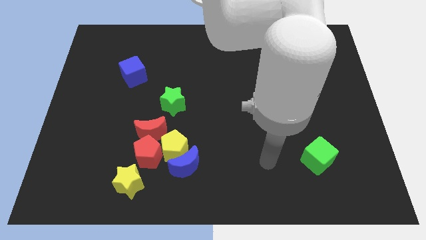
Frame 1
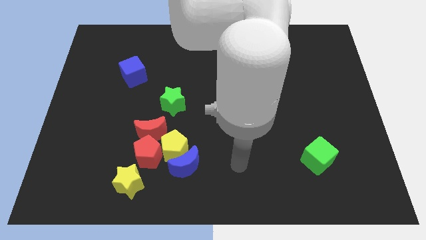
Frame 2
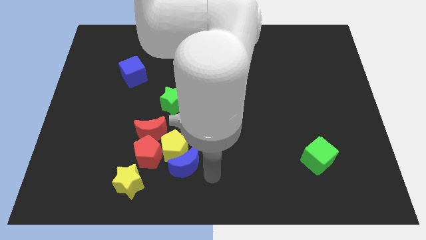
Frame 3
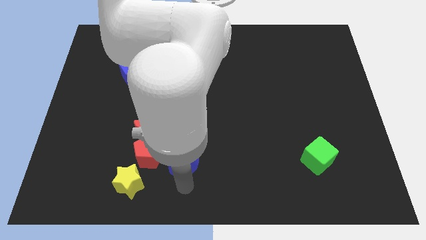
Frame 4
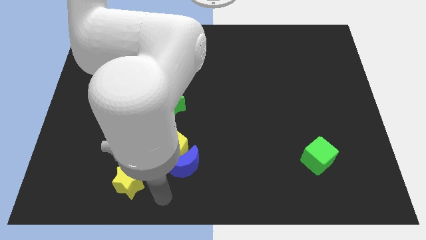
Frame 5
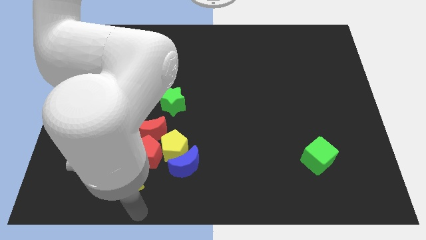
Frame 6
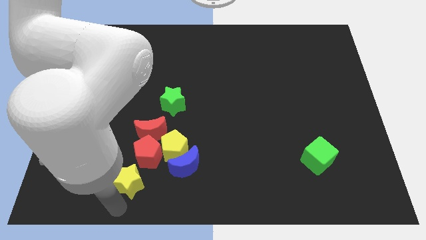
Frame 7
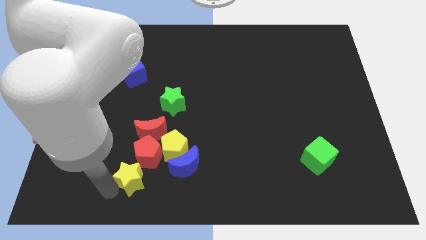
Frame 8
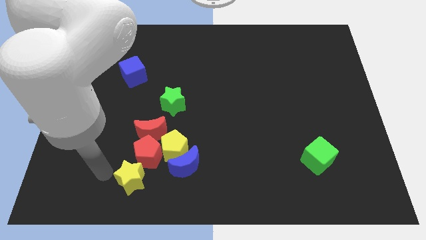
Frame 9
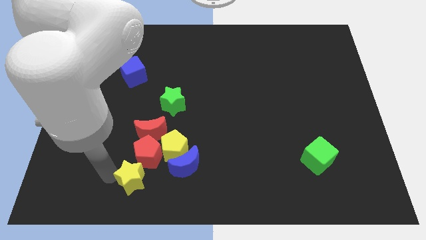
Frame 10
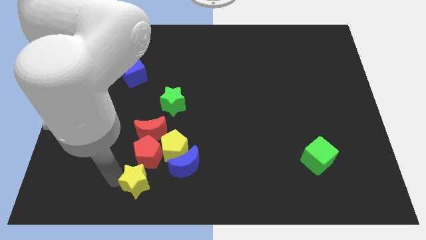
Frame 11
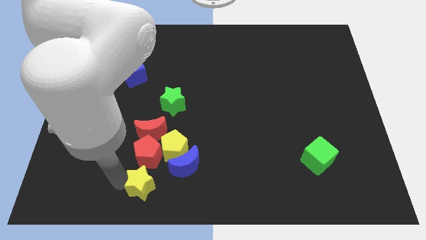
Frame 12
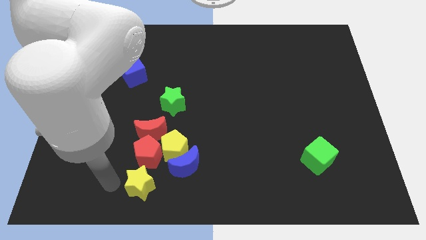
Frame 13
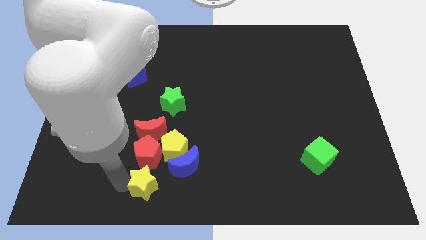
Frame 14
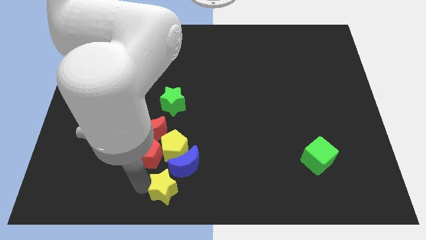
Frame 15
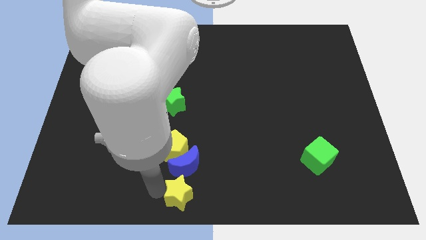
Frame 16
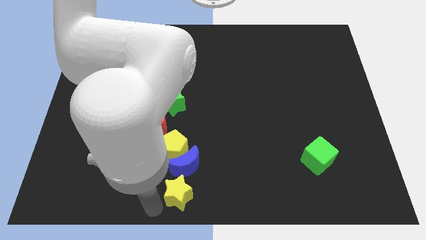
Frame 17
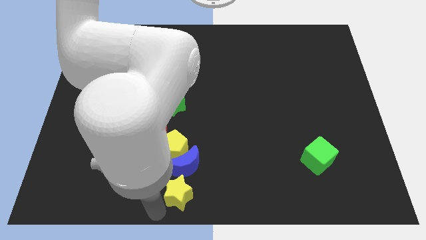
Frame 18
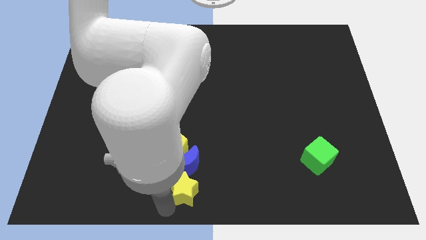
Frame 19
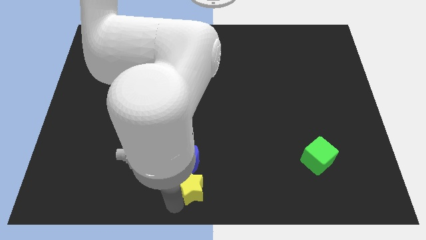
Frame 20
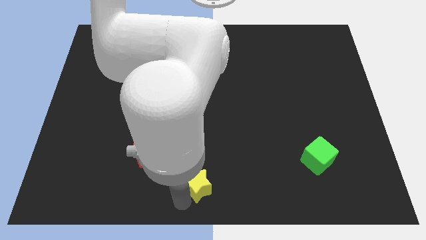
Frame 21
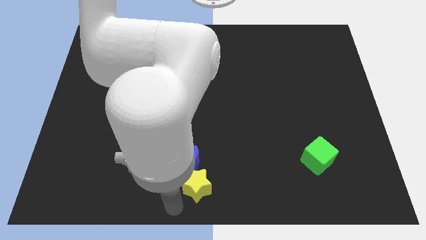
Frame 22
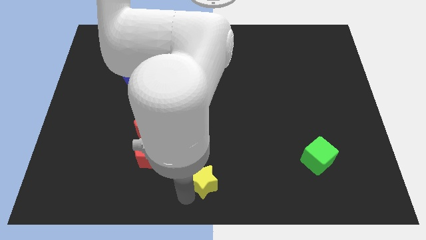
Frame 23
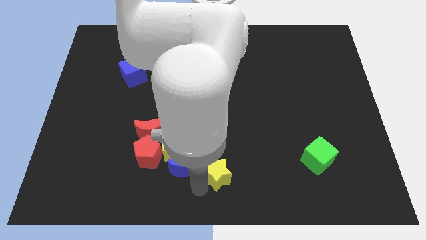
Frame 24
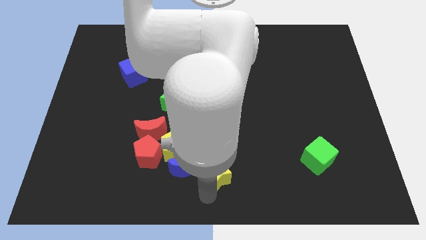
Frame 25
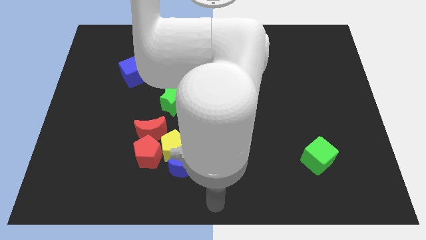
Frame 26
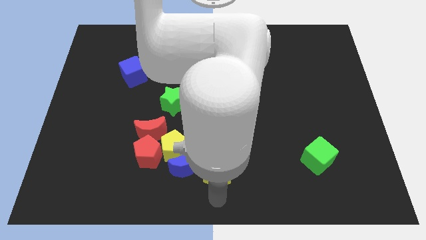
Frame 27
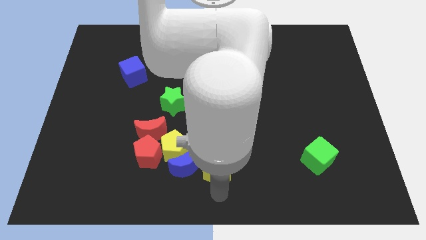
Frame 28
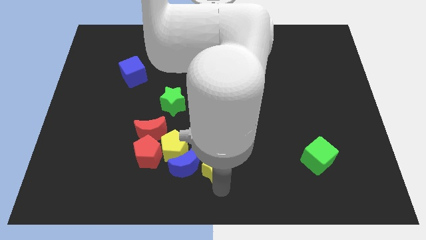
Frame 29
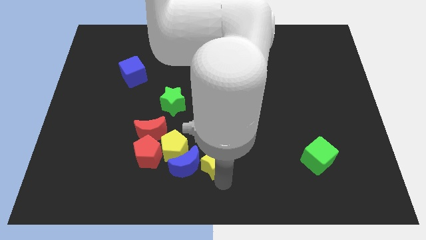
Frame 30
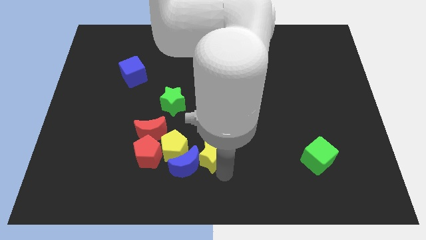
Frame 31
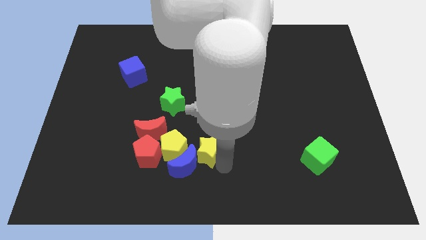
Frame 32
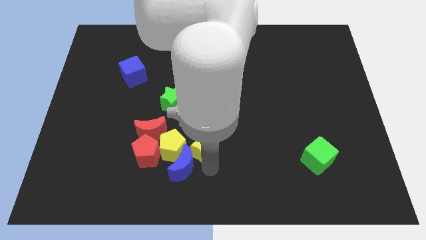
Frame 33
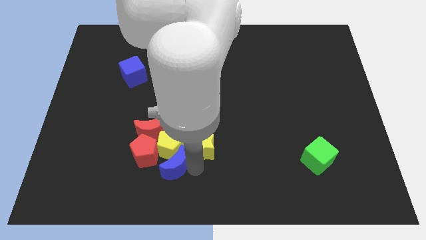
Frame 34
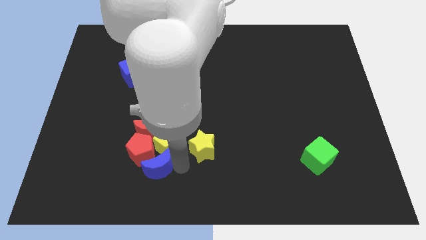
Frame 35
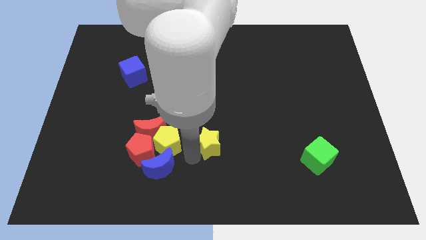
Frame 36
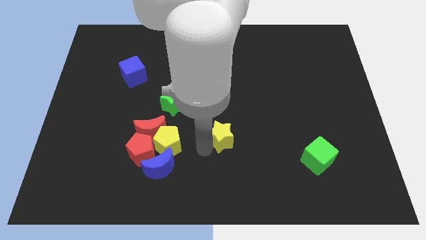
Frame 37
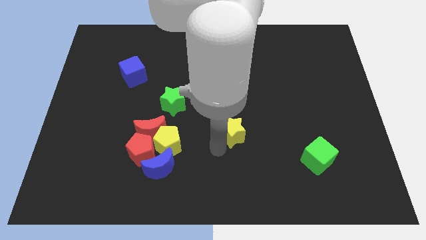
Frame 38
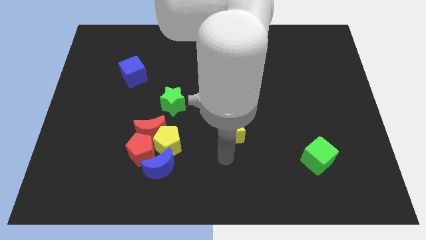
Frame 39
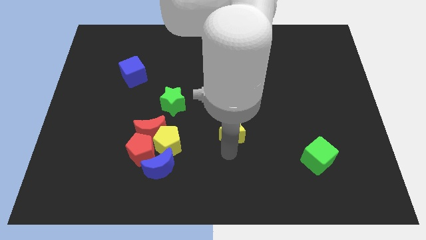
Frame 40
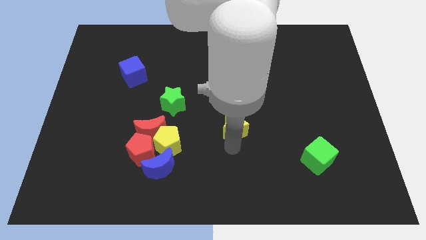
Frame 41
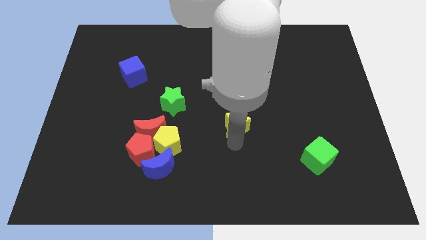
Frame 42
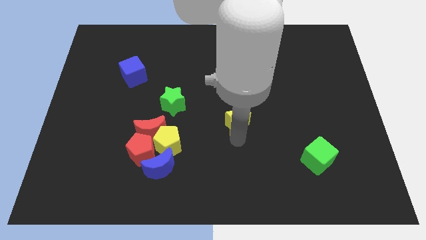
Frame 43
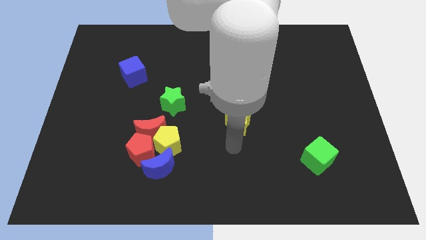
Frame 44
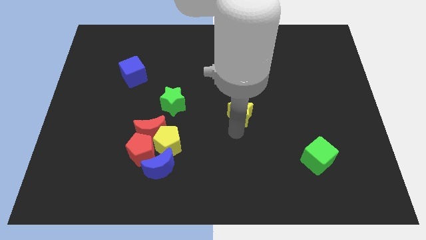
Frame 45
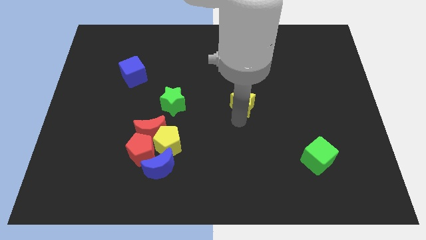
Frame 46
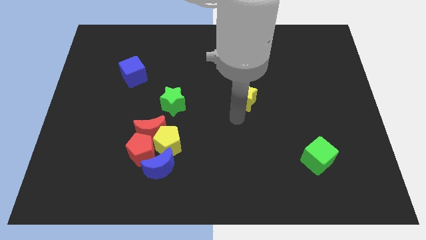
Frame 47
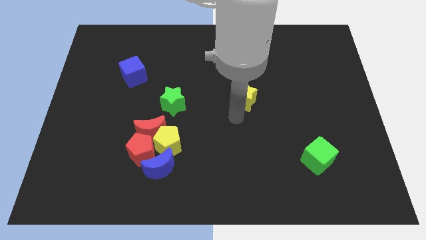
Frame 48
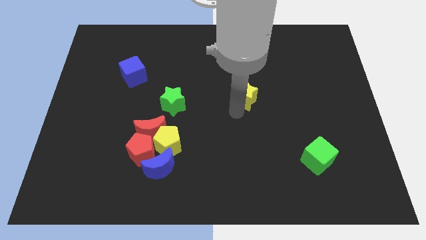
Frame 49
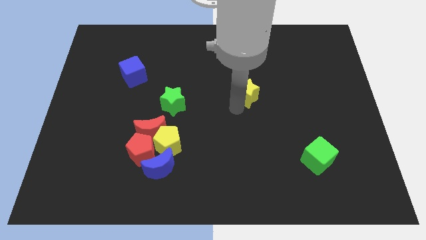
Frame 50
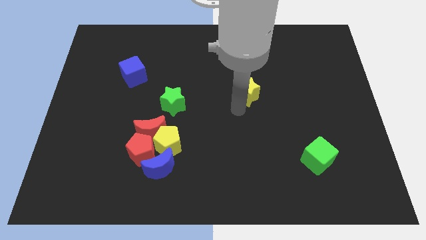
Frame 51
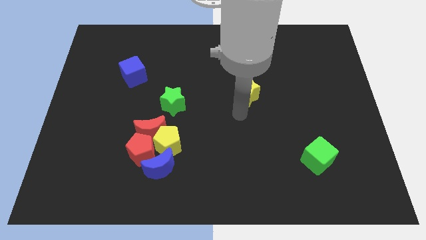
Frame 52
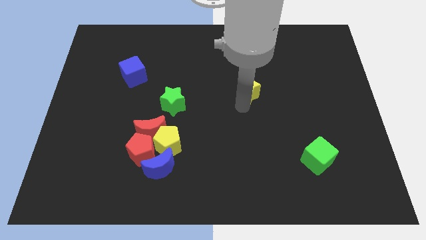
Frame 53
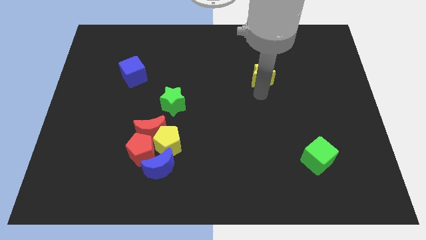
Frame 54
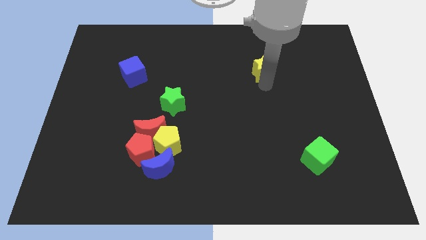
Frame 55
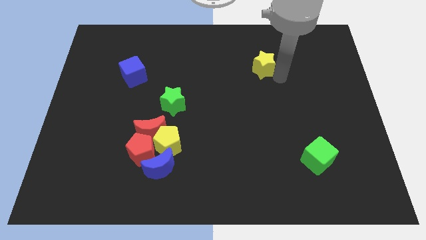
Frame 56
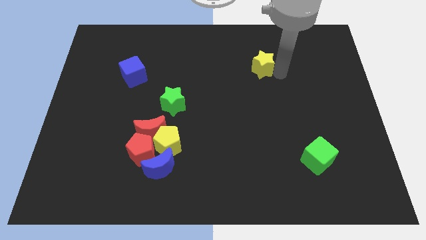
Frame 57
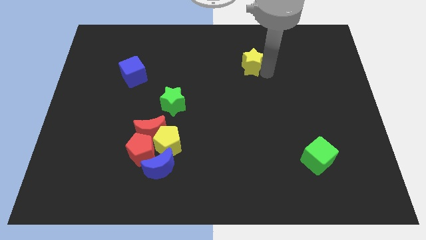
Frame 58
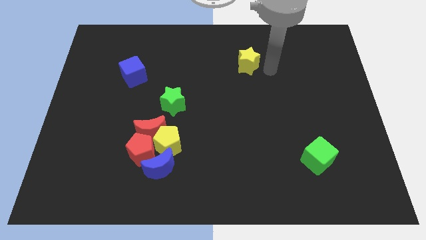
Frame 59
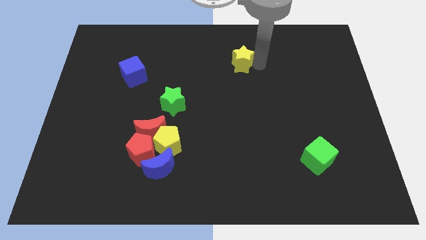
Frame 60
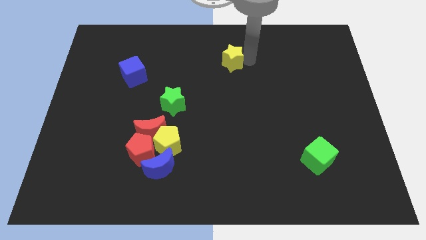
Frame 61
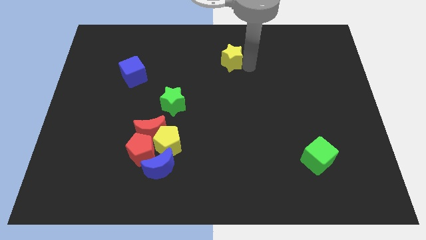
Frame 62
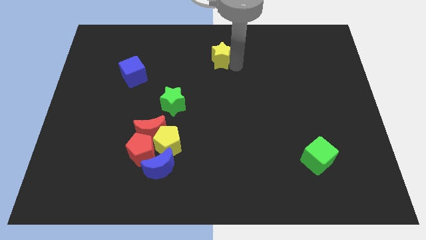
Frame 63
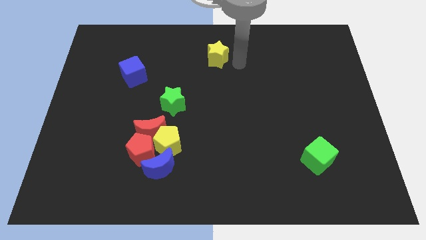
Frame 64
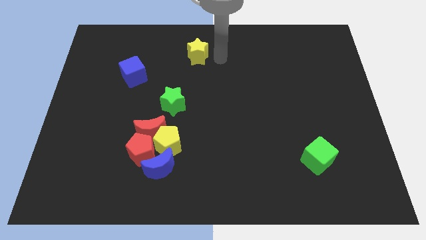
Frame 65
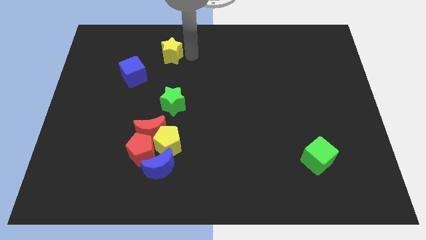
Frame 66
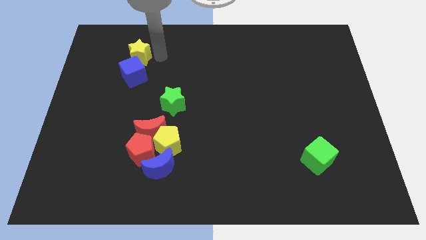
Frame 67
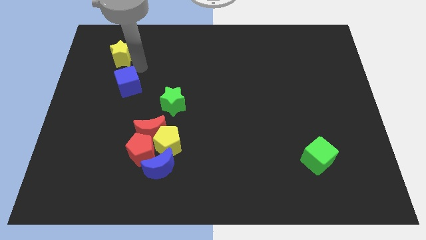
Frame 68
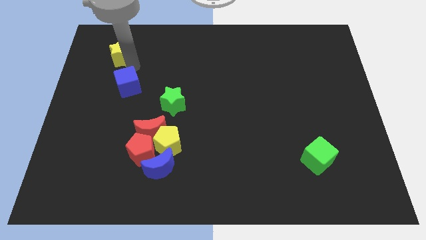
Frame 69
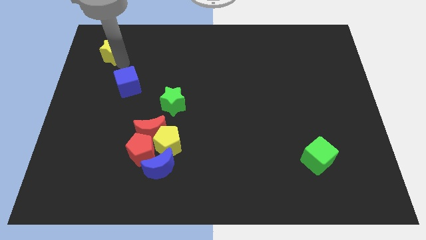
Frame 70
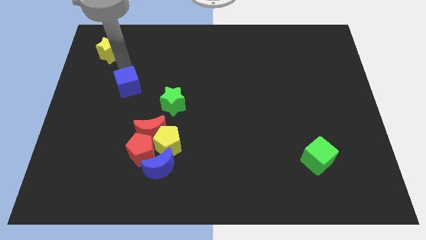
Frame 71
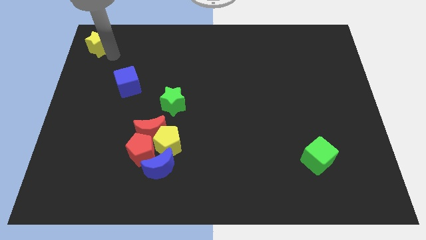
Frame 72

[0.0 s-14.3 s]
slide the yellow star to the top left corner

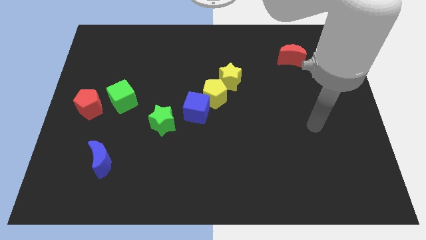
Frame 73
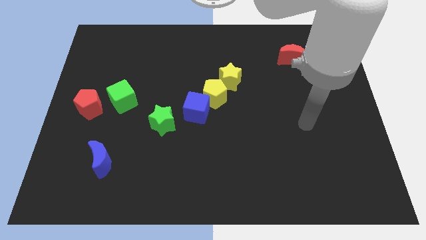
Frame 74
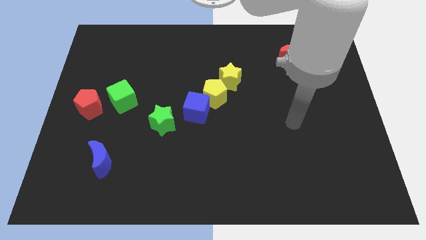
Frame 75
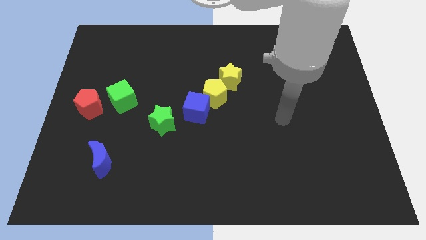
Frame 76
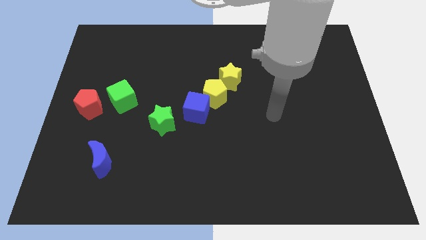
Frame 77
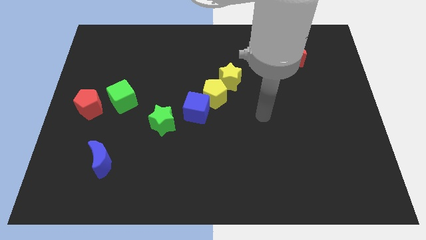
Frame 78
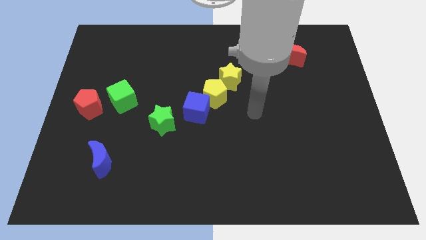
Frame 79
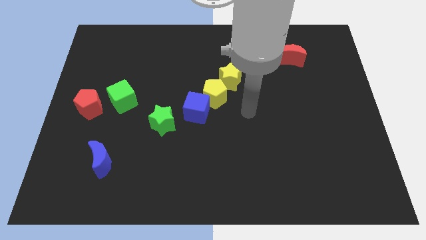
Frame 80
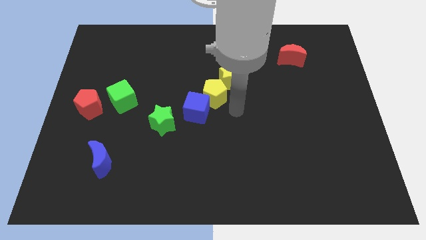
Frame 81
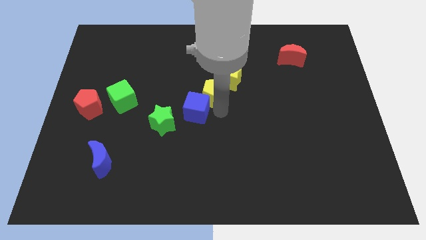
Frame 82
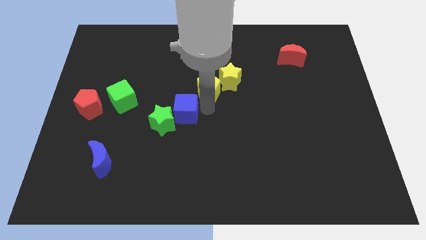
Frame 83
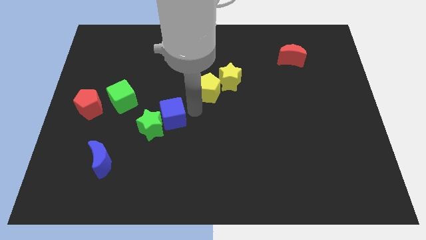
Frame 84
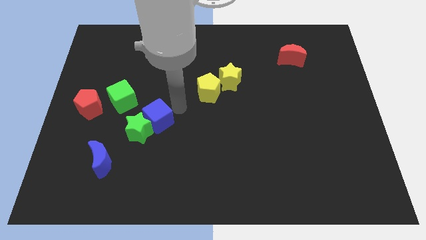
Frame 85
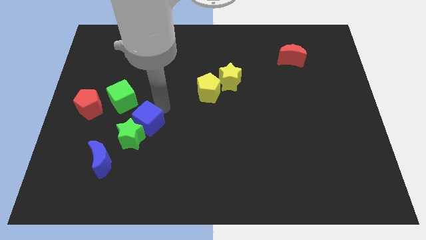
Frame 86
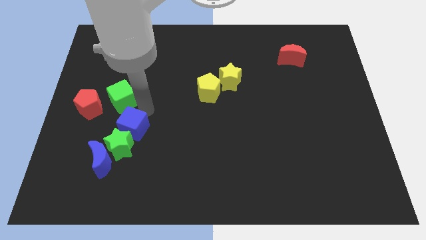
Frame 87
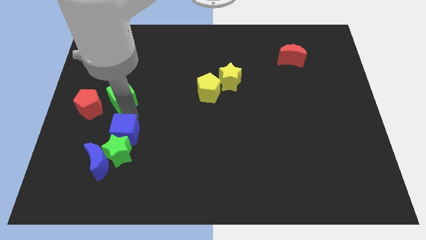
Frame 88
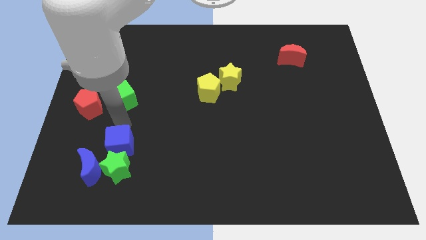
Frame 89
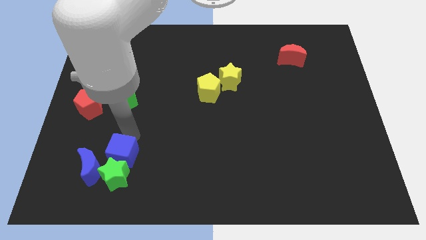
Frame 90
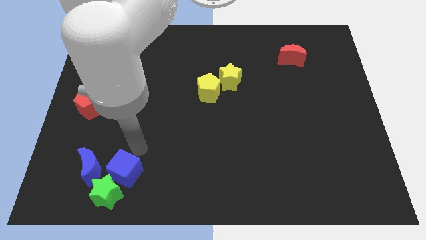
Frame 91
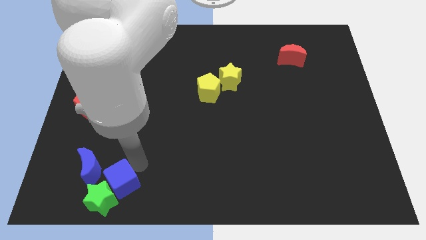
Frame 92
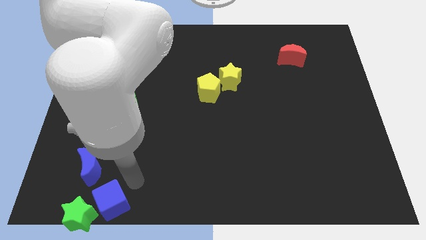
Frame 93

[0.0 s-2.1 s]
move the green star to the bottom left of the board
